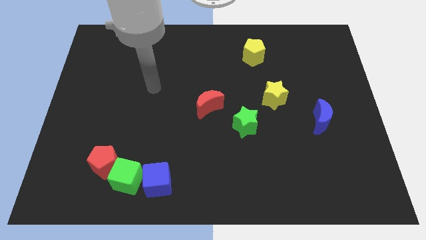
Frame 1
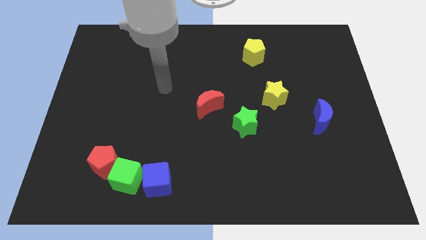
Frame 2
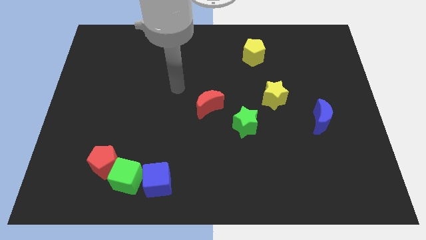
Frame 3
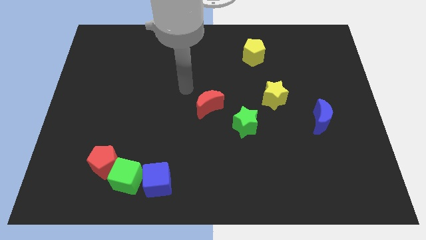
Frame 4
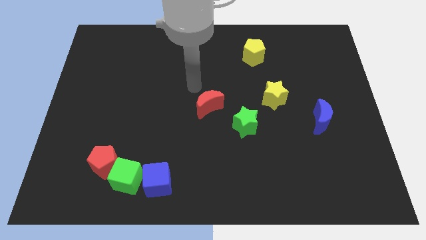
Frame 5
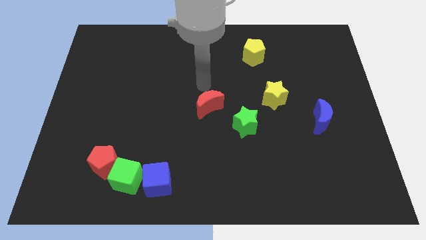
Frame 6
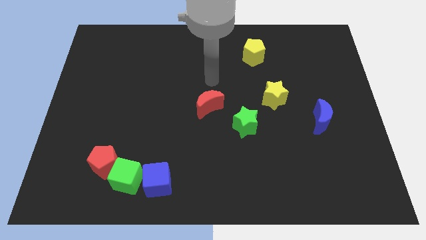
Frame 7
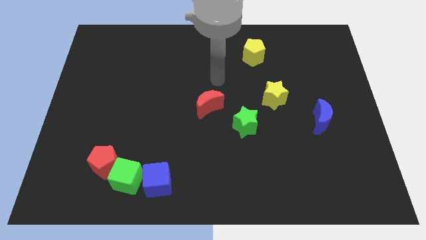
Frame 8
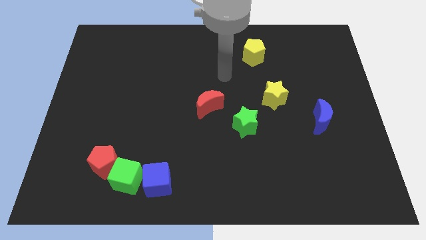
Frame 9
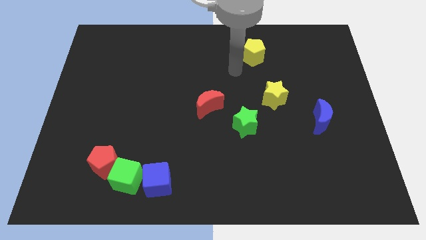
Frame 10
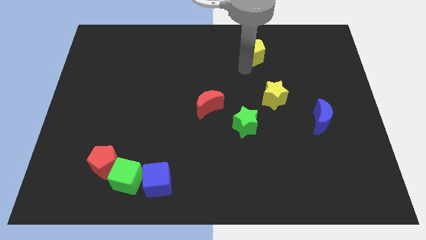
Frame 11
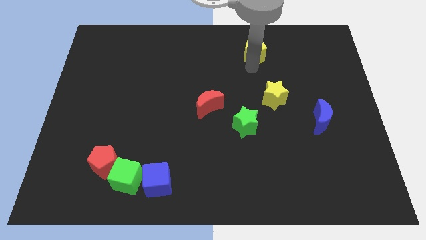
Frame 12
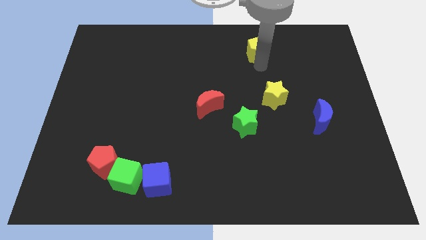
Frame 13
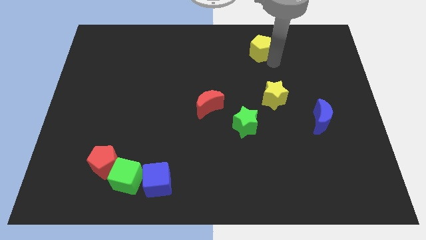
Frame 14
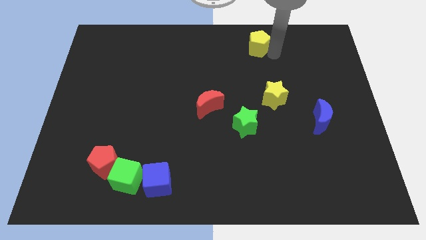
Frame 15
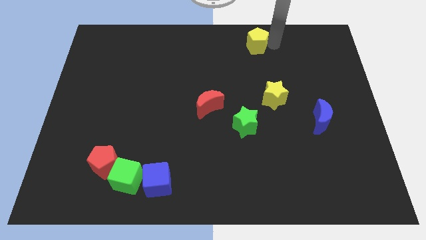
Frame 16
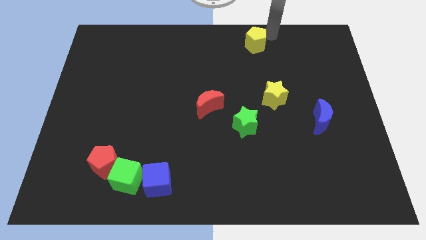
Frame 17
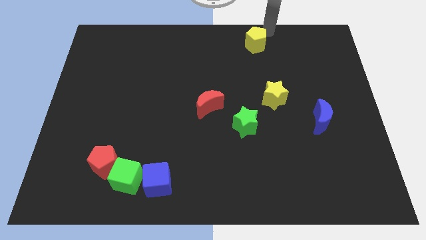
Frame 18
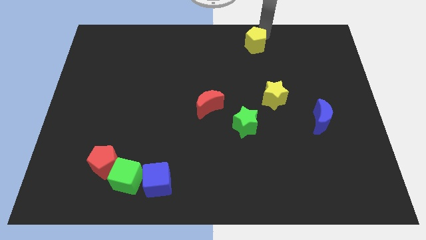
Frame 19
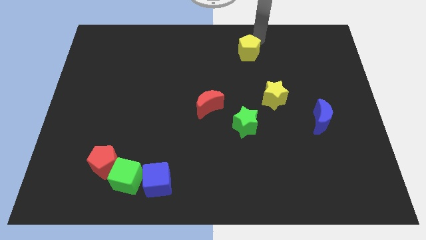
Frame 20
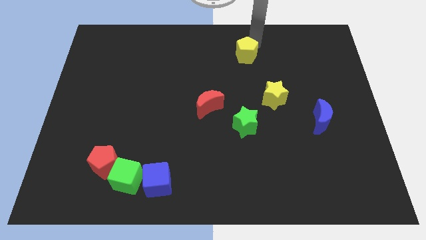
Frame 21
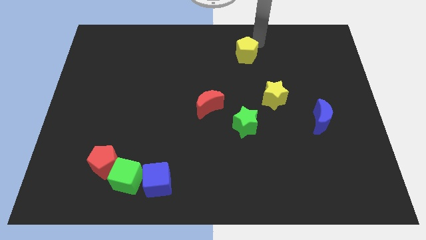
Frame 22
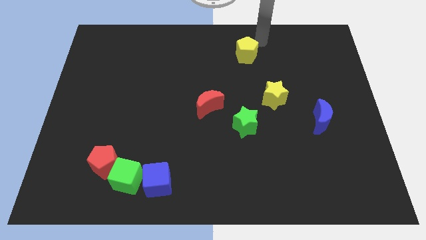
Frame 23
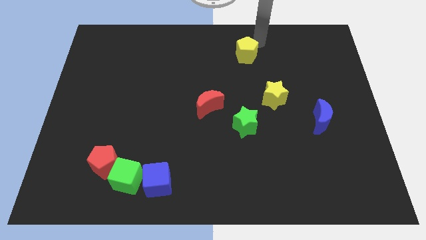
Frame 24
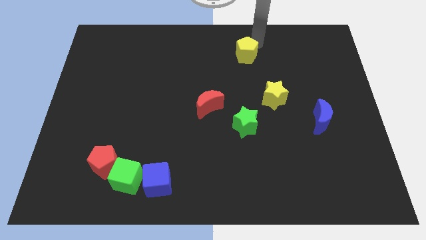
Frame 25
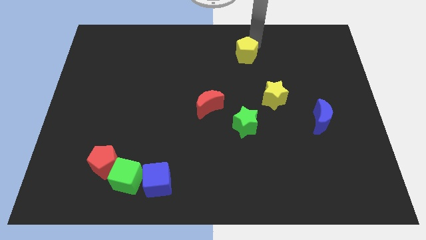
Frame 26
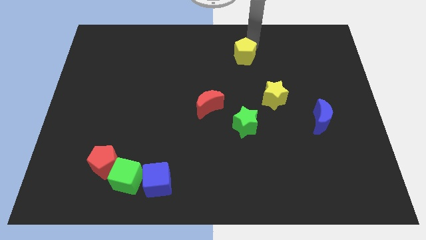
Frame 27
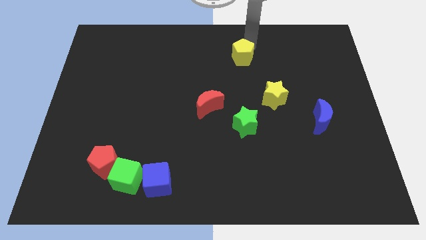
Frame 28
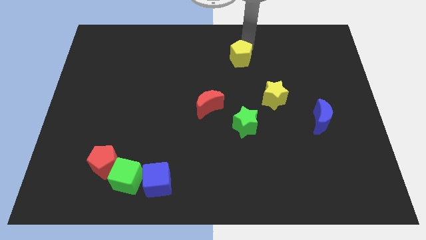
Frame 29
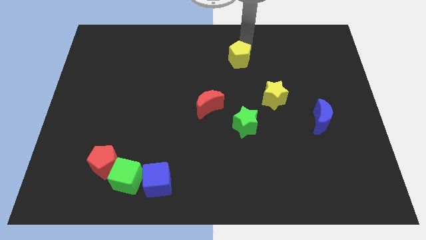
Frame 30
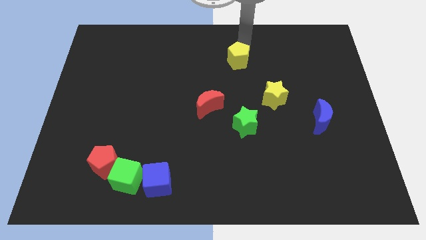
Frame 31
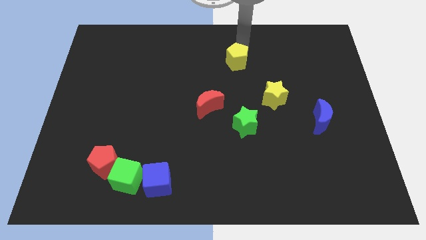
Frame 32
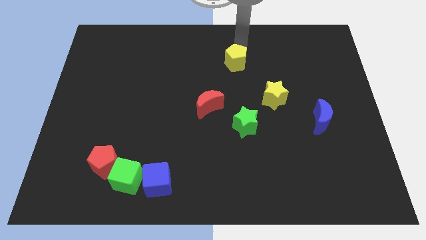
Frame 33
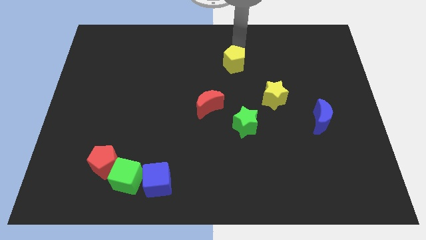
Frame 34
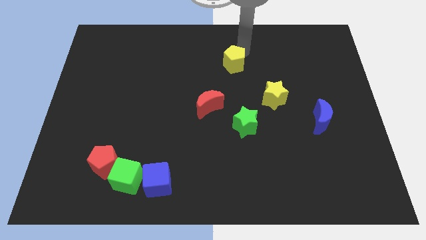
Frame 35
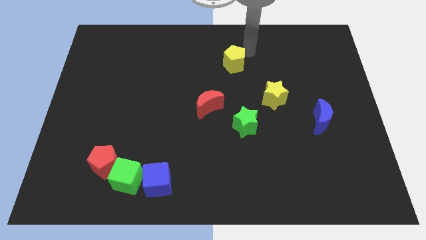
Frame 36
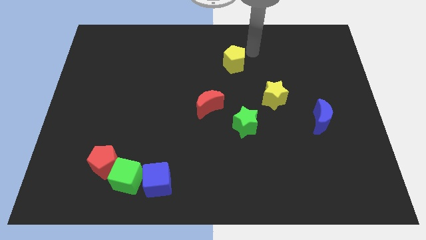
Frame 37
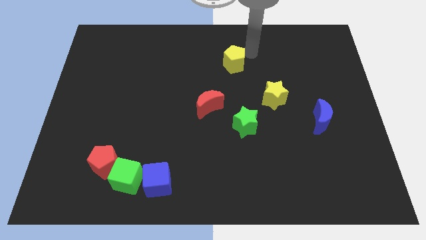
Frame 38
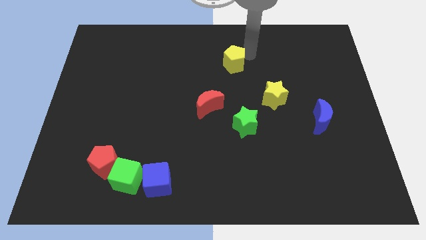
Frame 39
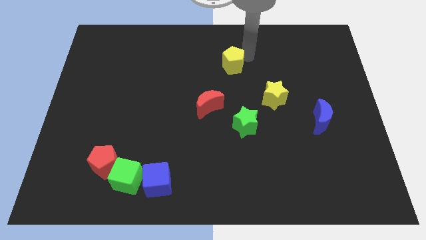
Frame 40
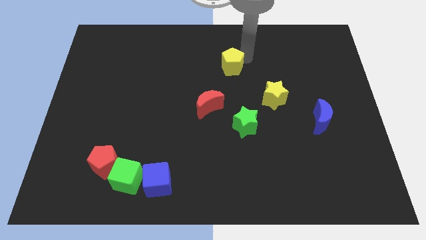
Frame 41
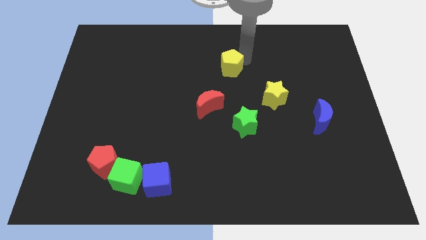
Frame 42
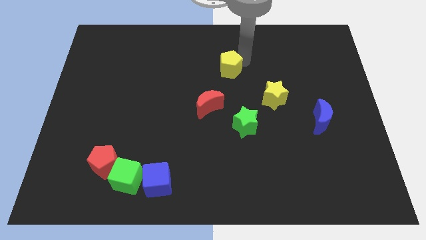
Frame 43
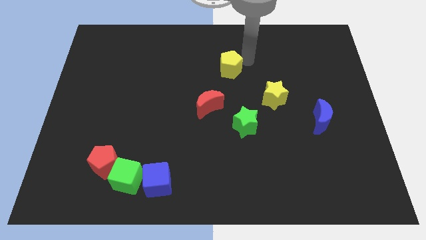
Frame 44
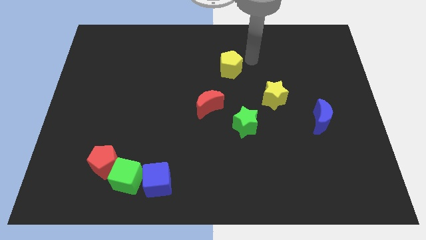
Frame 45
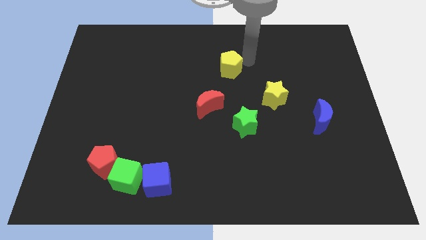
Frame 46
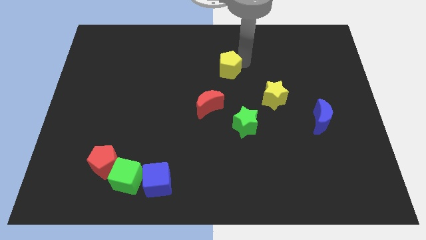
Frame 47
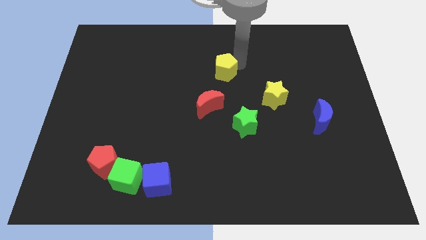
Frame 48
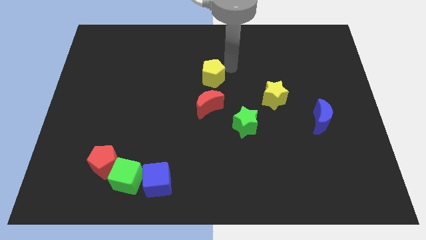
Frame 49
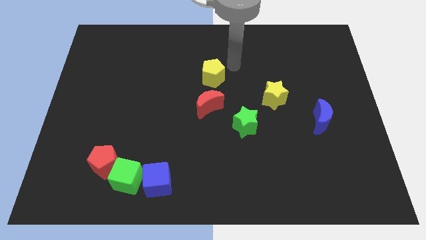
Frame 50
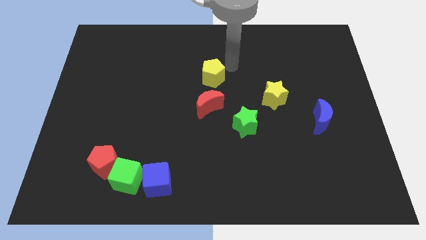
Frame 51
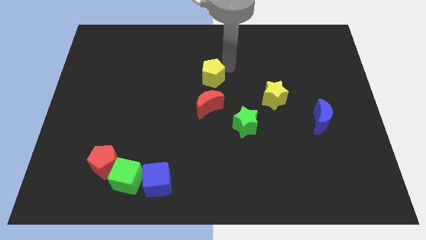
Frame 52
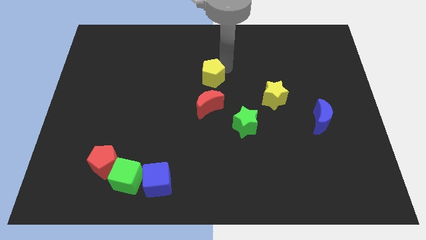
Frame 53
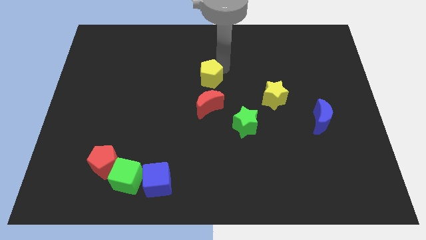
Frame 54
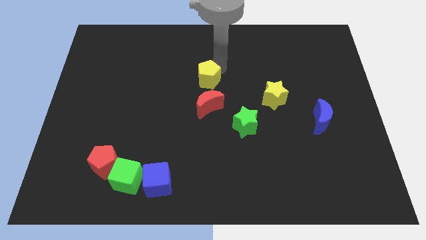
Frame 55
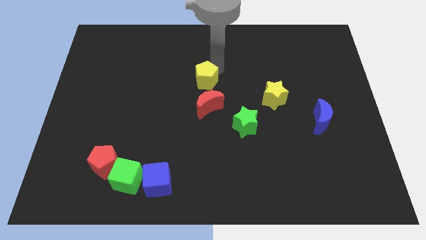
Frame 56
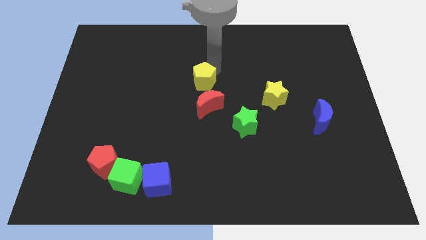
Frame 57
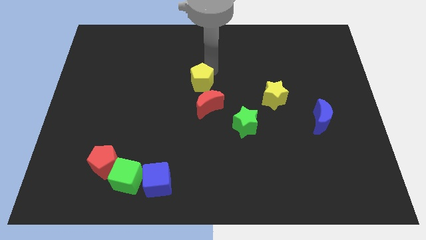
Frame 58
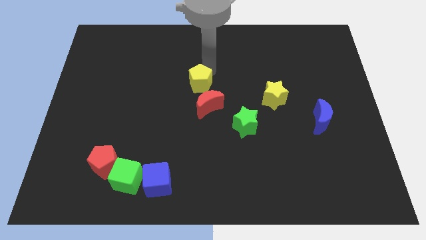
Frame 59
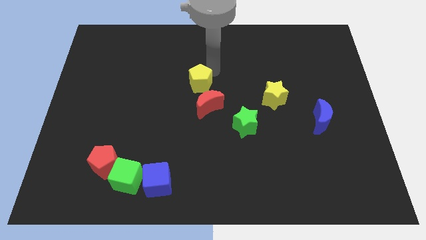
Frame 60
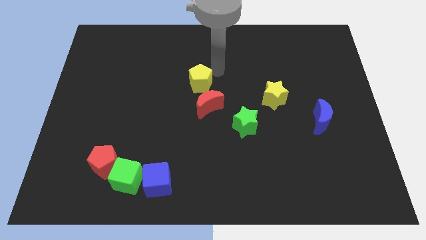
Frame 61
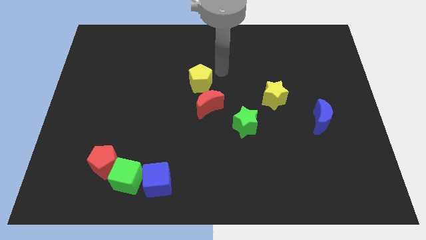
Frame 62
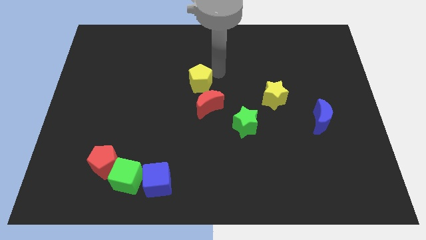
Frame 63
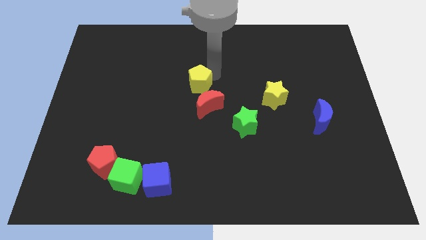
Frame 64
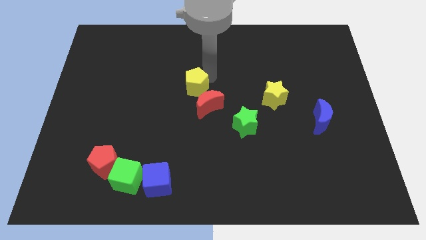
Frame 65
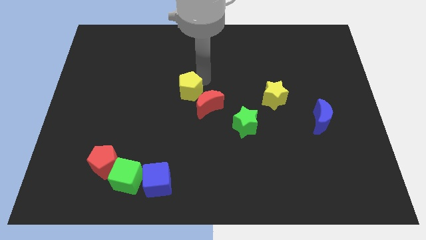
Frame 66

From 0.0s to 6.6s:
move the yellow pentagon diagonally downwards and to the left

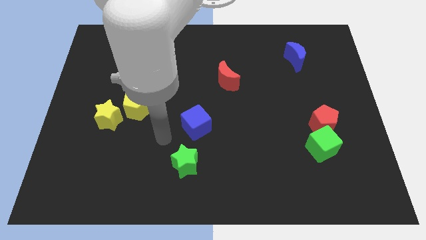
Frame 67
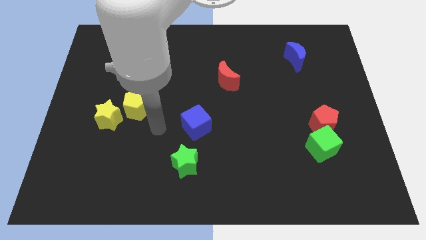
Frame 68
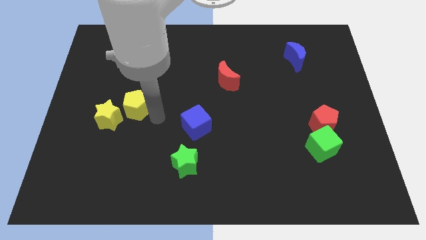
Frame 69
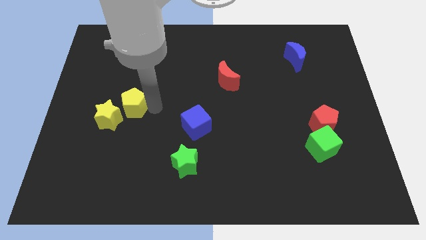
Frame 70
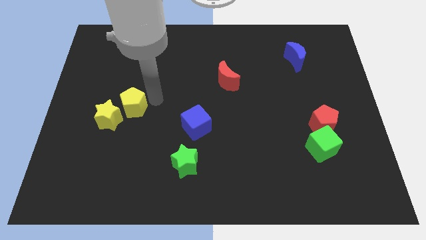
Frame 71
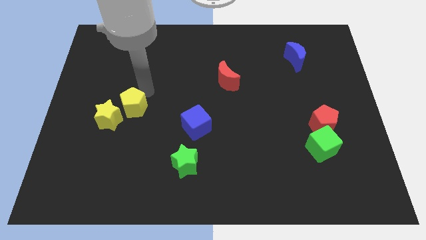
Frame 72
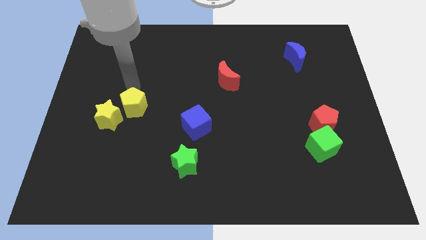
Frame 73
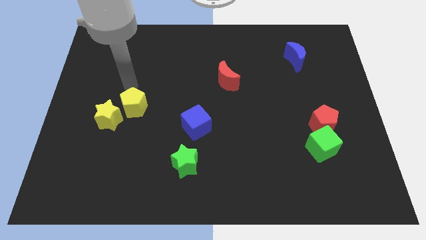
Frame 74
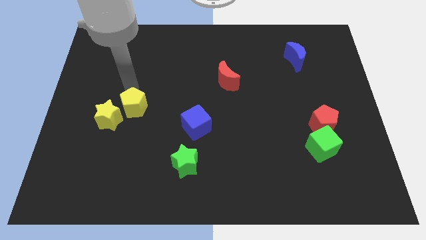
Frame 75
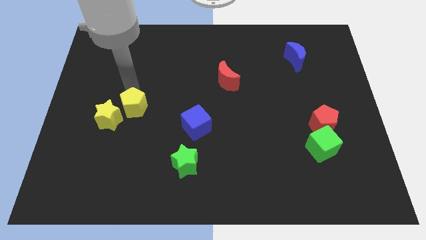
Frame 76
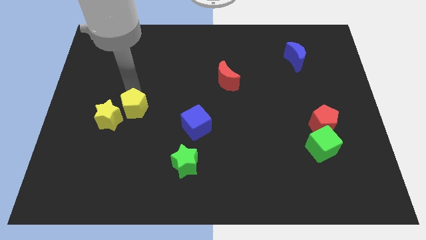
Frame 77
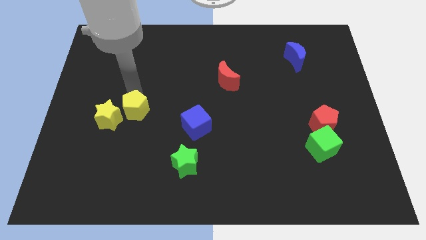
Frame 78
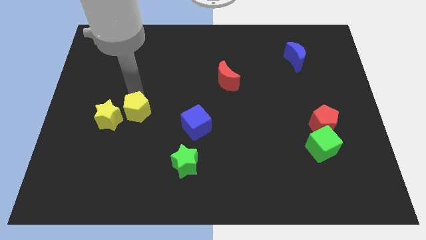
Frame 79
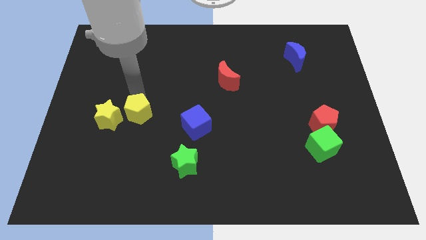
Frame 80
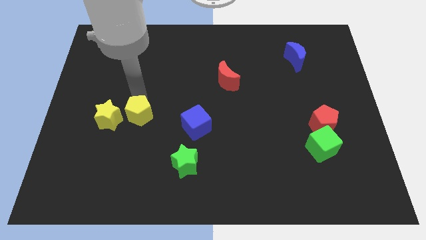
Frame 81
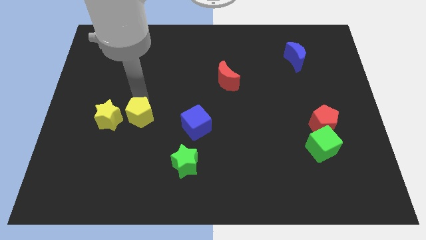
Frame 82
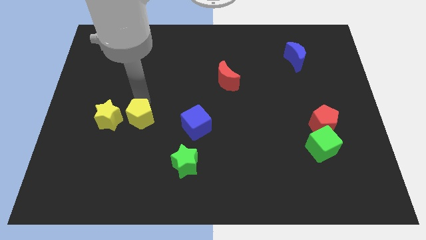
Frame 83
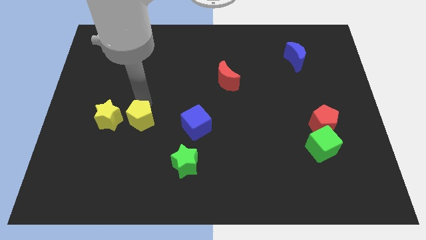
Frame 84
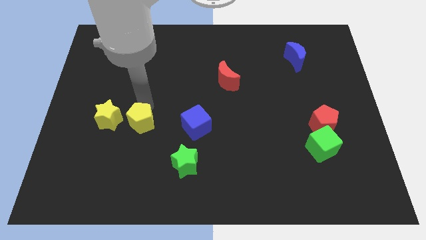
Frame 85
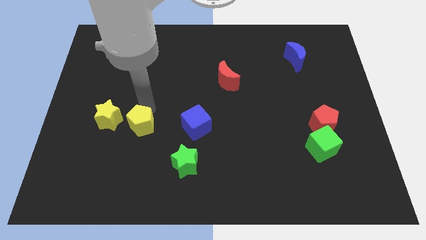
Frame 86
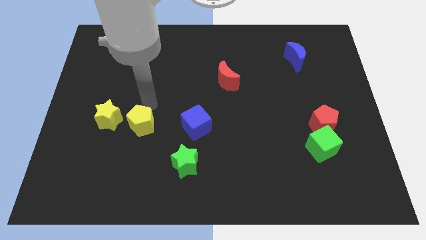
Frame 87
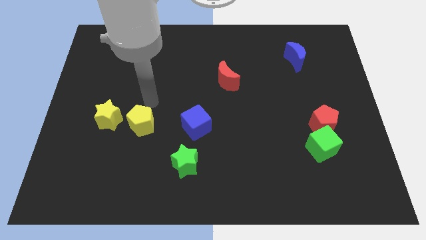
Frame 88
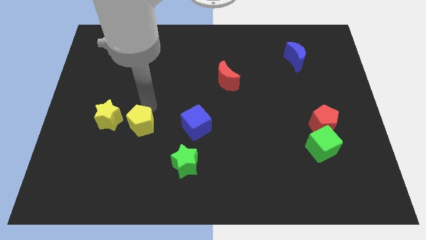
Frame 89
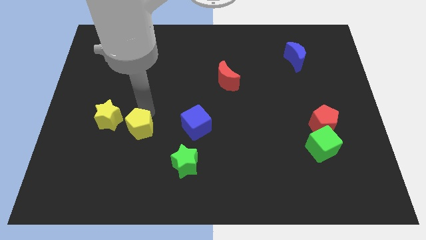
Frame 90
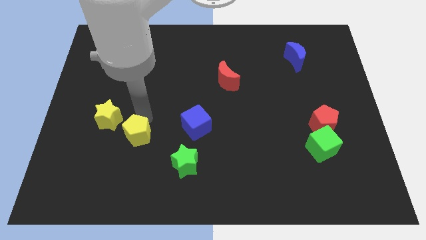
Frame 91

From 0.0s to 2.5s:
slide the yellow pentagon down a little
